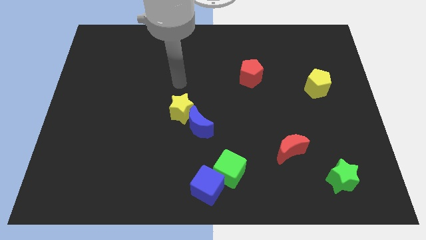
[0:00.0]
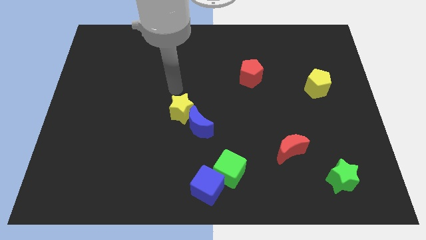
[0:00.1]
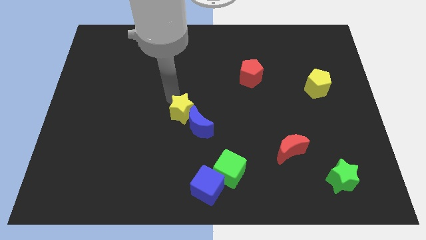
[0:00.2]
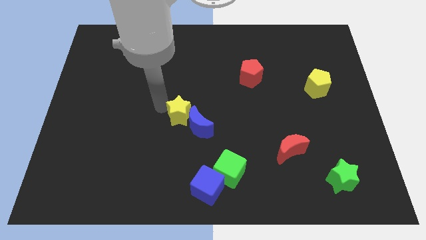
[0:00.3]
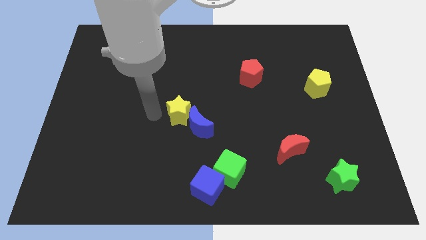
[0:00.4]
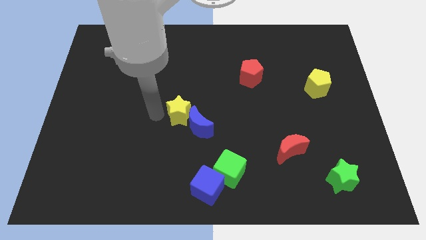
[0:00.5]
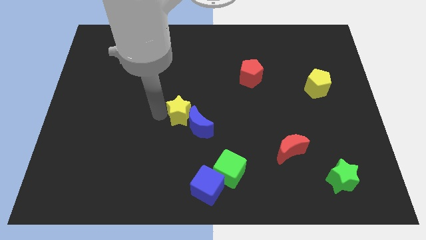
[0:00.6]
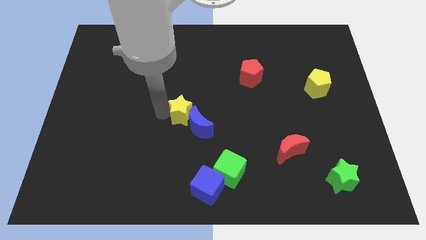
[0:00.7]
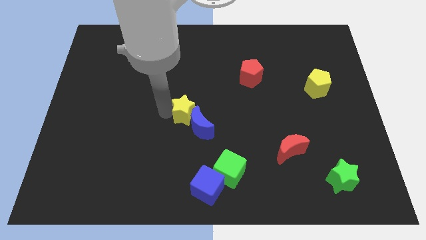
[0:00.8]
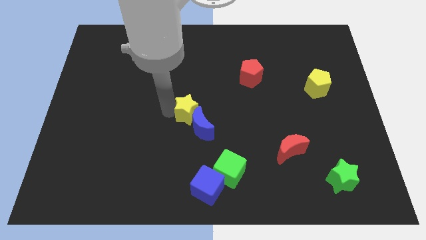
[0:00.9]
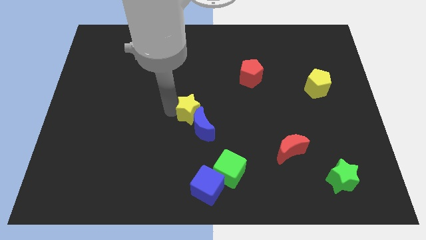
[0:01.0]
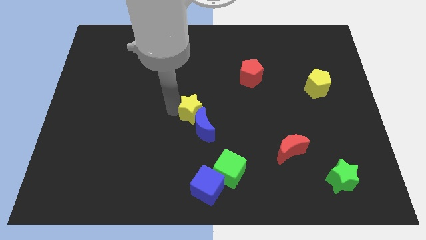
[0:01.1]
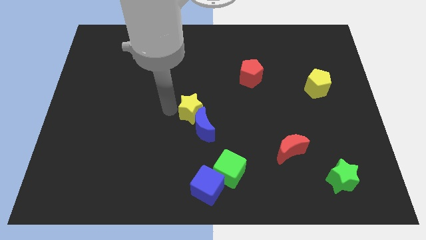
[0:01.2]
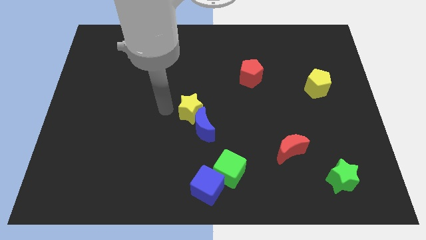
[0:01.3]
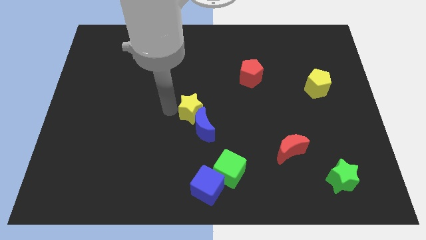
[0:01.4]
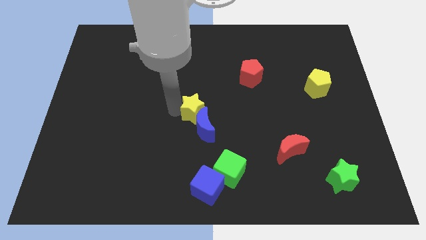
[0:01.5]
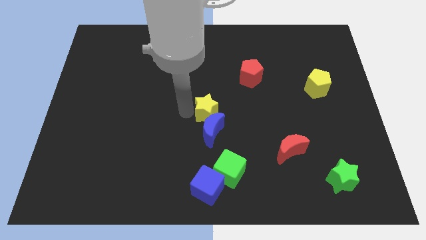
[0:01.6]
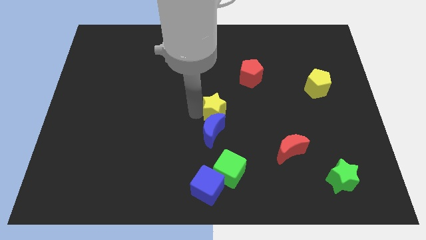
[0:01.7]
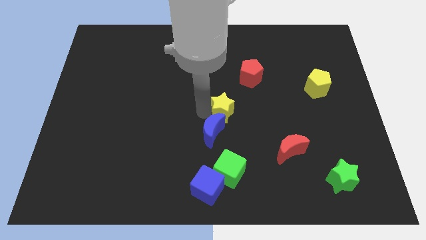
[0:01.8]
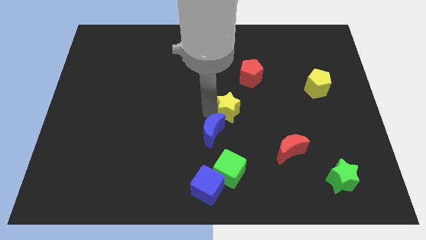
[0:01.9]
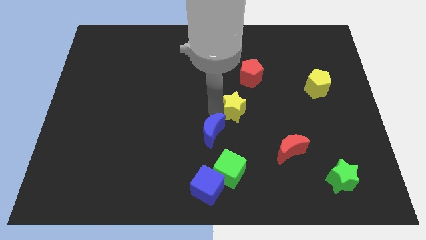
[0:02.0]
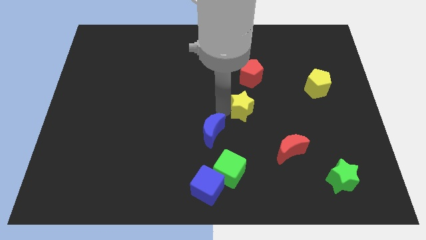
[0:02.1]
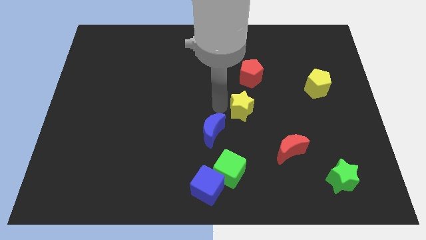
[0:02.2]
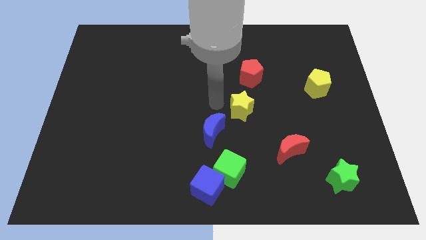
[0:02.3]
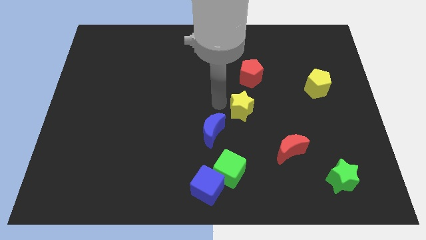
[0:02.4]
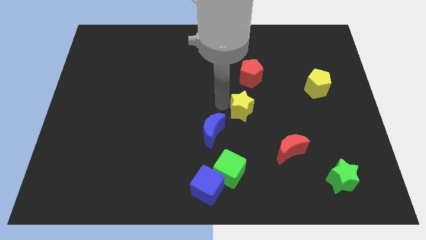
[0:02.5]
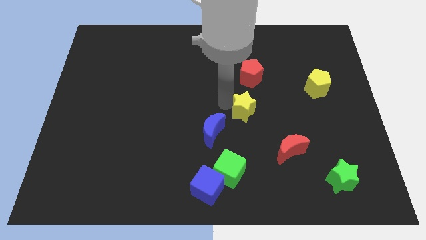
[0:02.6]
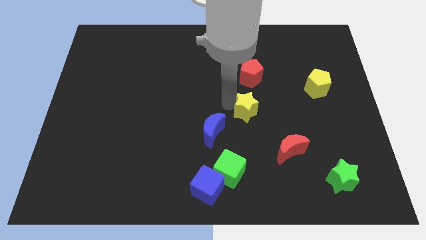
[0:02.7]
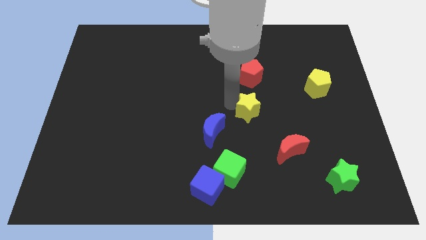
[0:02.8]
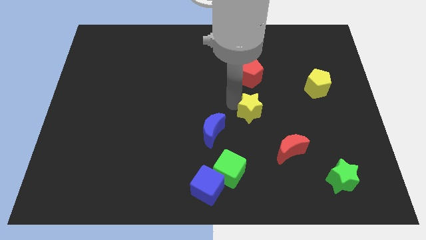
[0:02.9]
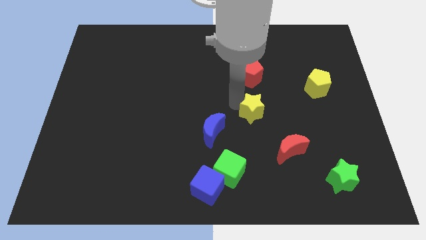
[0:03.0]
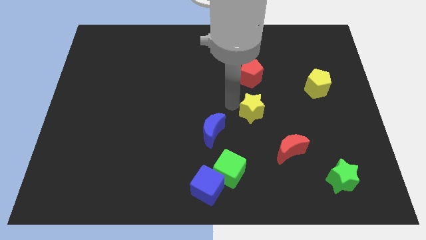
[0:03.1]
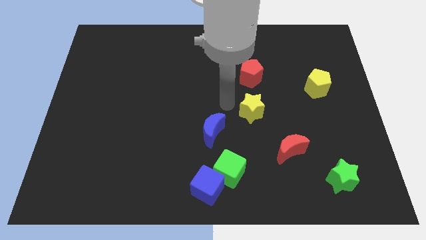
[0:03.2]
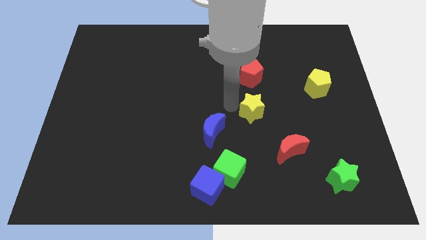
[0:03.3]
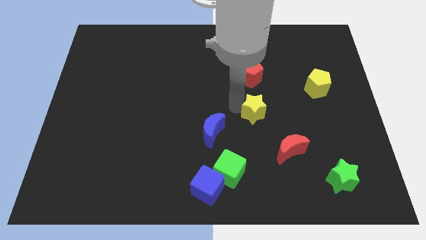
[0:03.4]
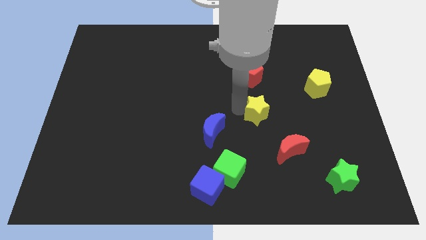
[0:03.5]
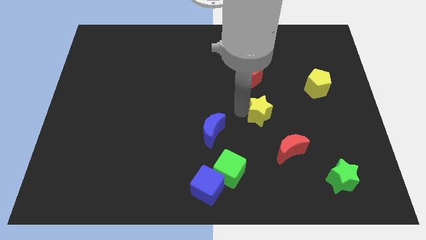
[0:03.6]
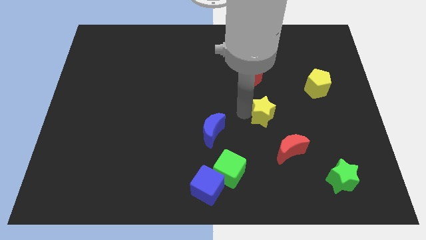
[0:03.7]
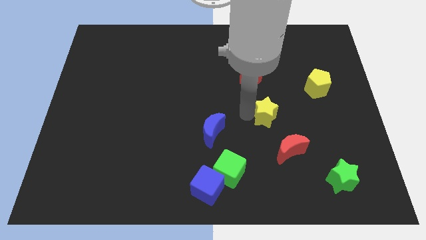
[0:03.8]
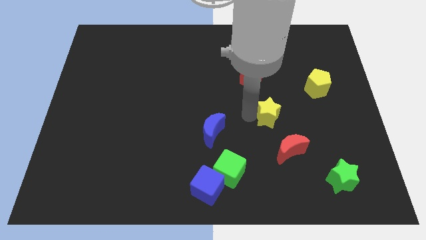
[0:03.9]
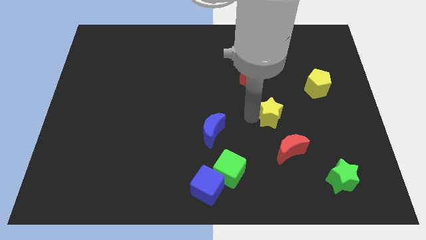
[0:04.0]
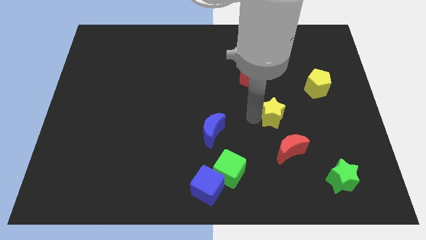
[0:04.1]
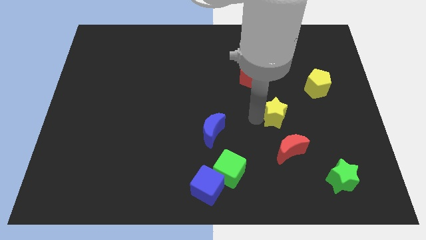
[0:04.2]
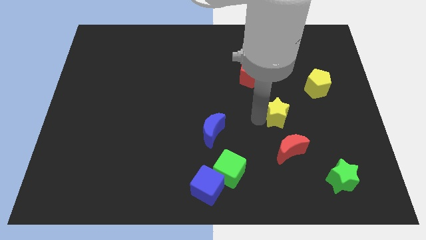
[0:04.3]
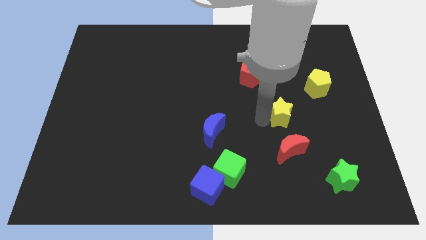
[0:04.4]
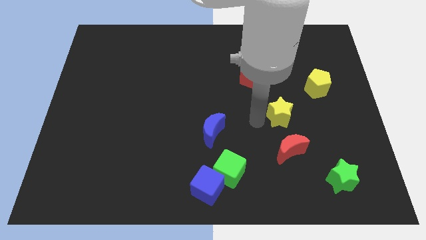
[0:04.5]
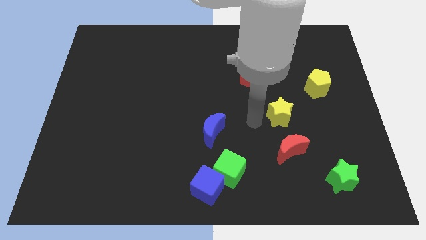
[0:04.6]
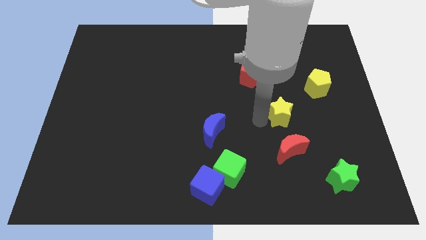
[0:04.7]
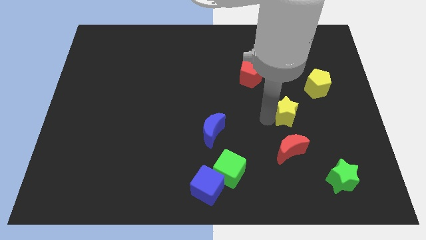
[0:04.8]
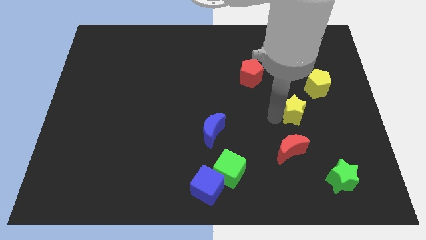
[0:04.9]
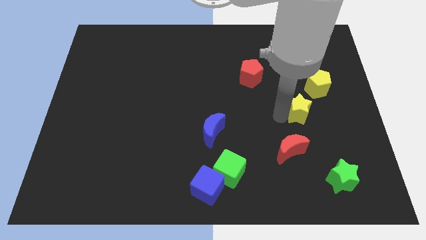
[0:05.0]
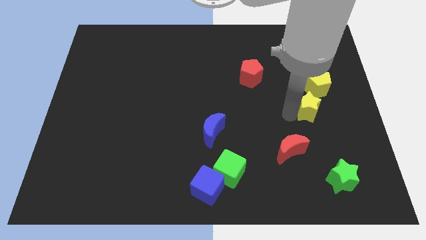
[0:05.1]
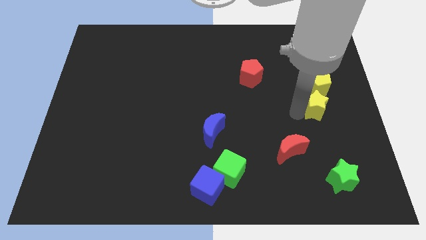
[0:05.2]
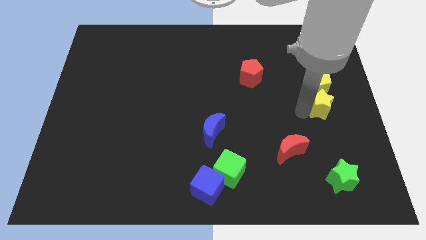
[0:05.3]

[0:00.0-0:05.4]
push the yellow star to the right side of the board

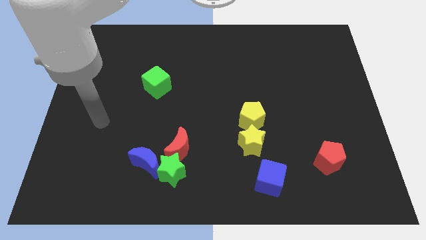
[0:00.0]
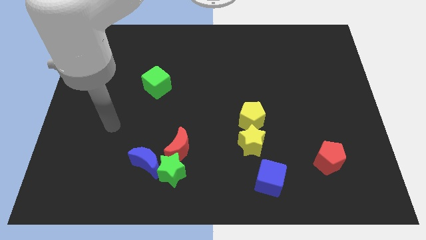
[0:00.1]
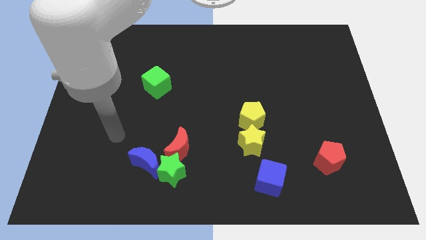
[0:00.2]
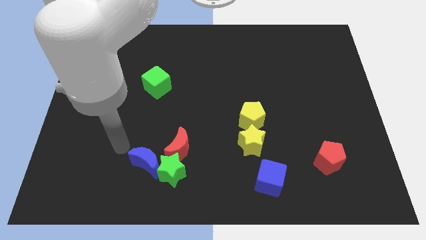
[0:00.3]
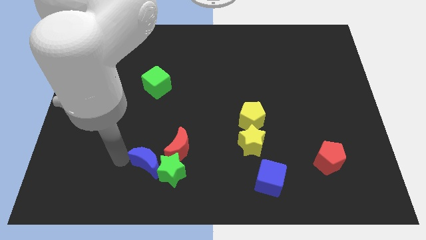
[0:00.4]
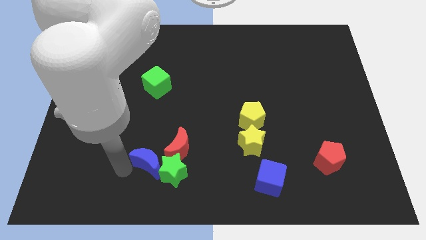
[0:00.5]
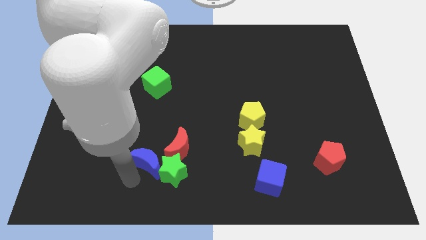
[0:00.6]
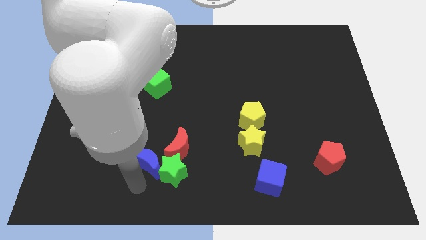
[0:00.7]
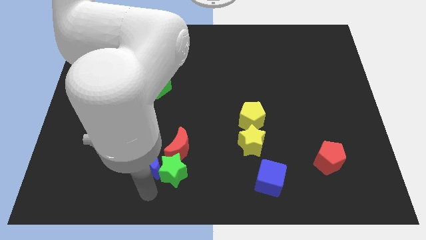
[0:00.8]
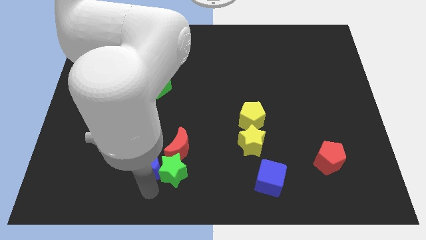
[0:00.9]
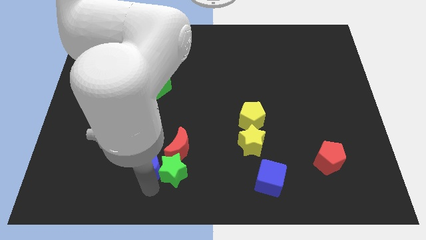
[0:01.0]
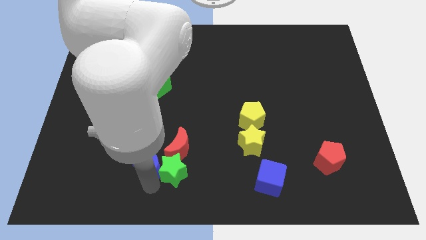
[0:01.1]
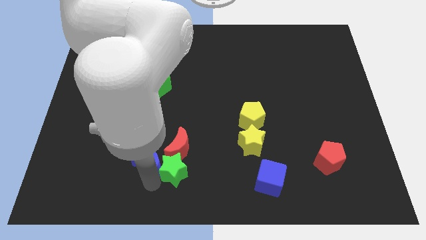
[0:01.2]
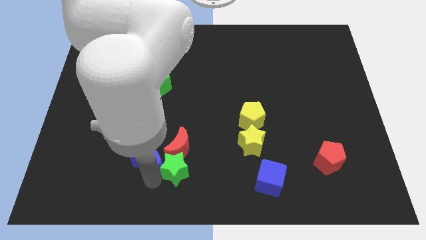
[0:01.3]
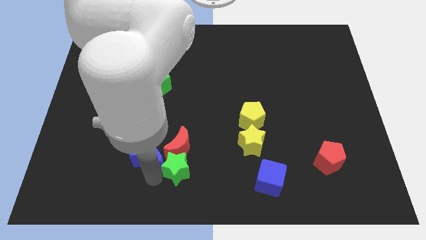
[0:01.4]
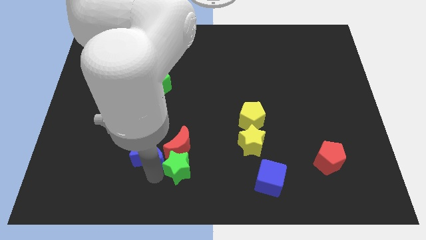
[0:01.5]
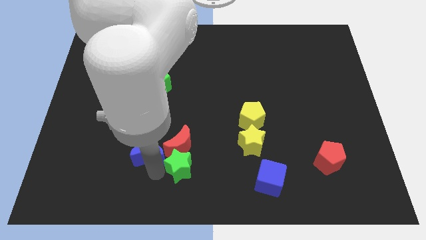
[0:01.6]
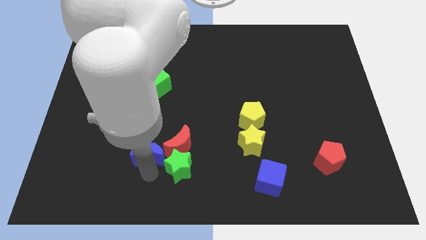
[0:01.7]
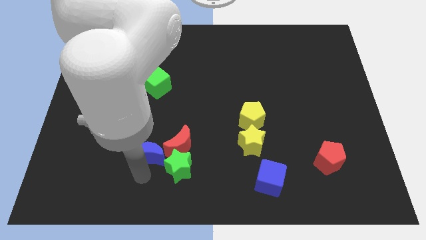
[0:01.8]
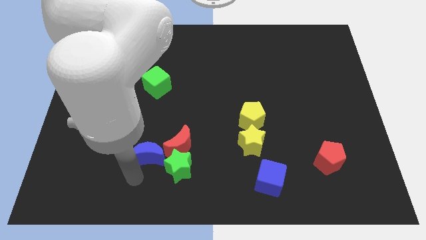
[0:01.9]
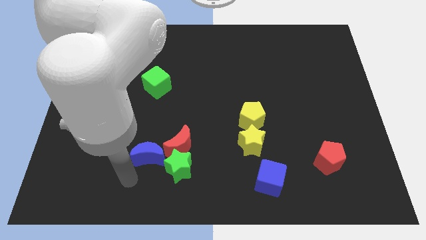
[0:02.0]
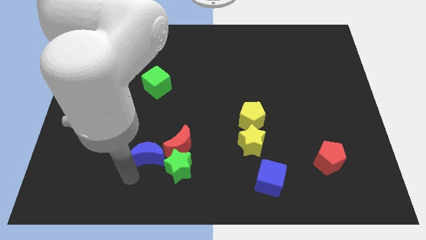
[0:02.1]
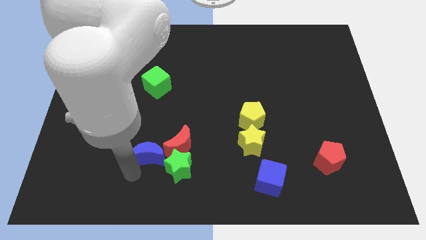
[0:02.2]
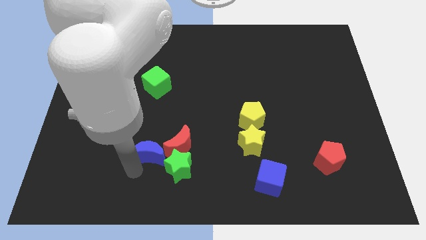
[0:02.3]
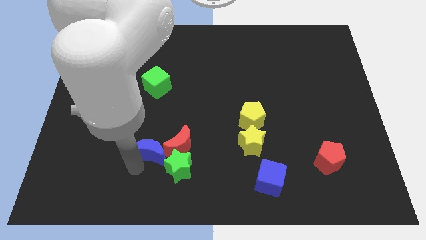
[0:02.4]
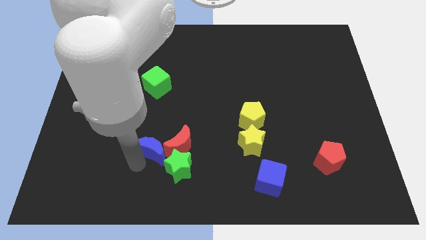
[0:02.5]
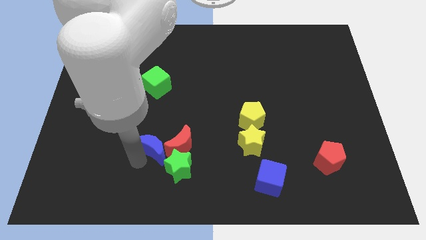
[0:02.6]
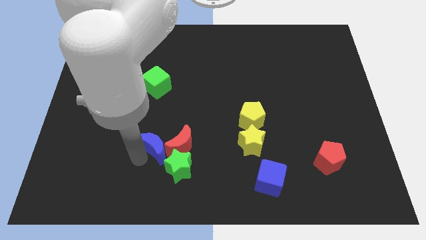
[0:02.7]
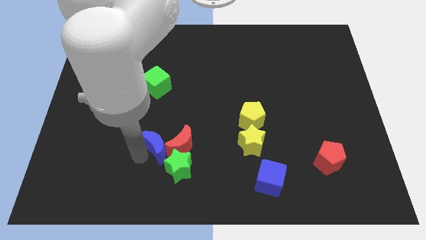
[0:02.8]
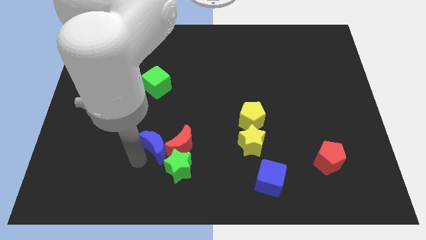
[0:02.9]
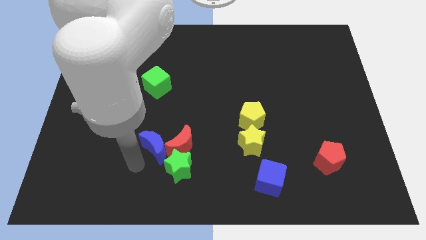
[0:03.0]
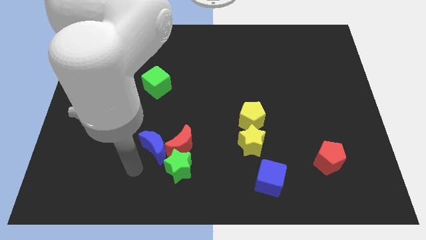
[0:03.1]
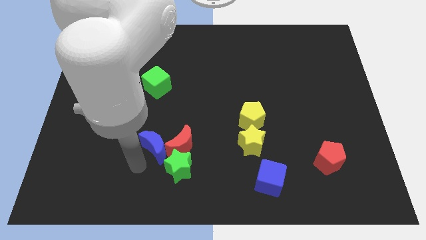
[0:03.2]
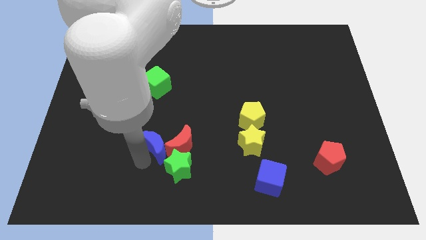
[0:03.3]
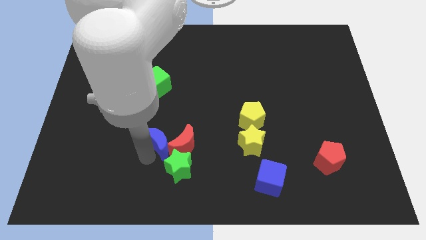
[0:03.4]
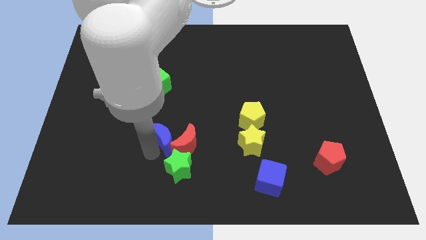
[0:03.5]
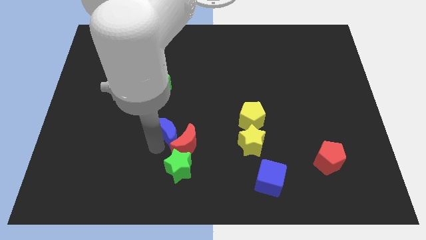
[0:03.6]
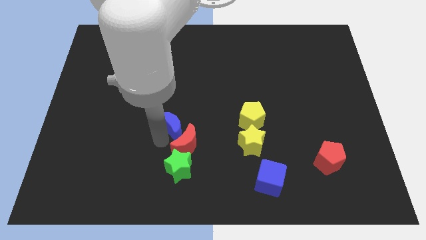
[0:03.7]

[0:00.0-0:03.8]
slide the blue moon to the middle
